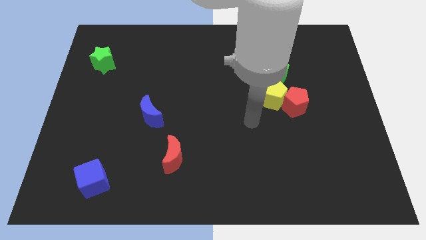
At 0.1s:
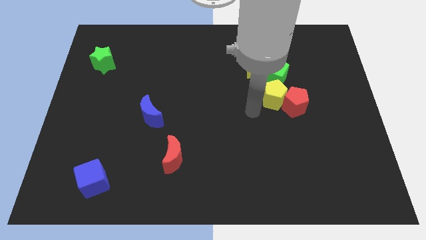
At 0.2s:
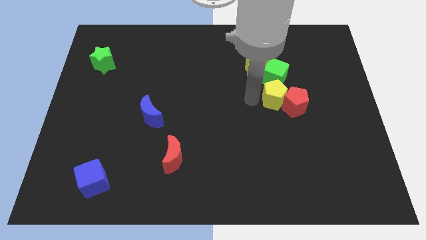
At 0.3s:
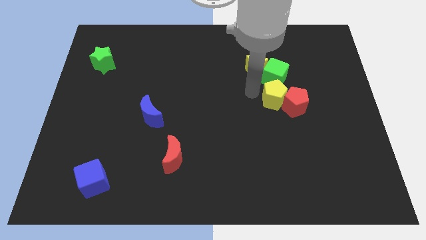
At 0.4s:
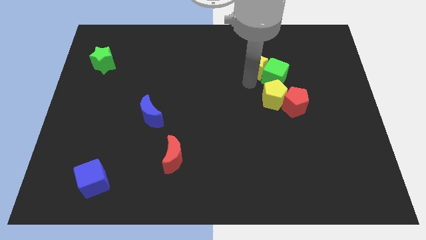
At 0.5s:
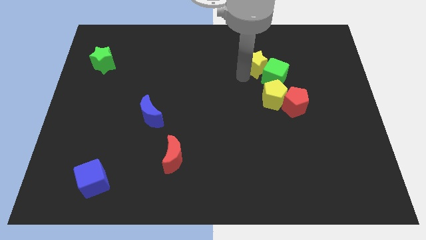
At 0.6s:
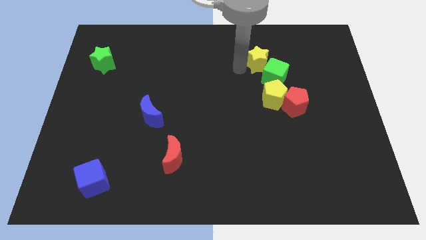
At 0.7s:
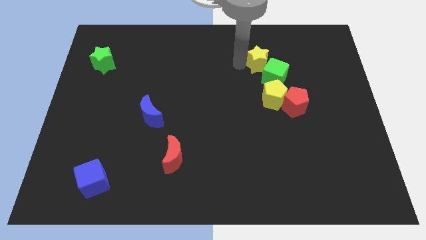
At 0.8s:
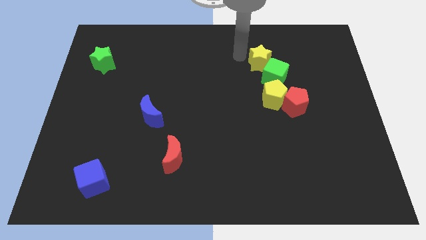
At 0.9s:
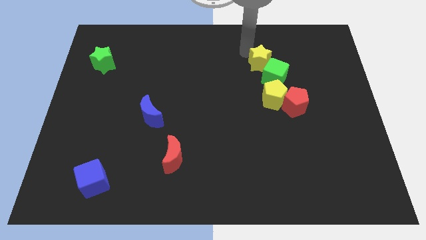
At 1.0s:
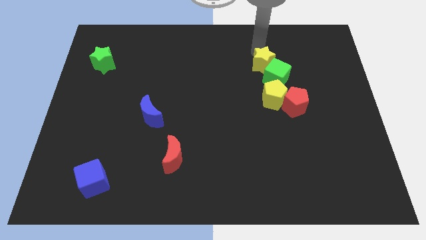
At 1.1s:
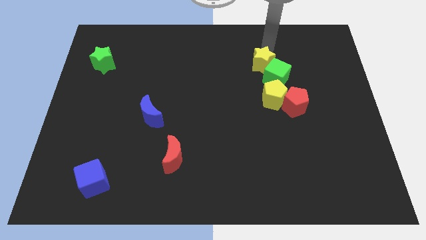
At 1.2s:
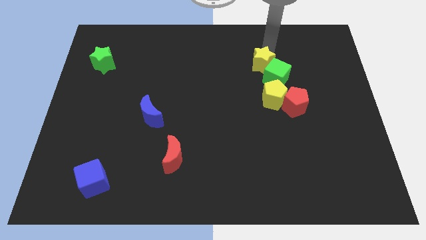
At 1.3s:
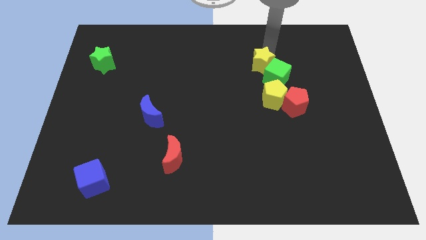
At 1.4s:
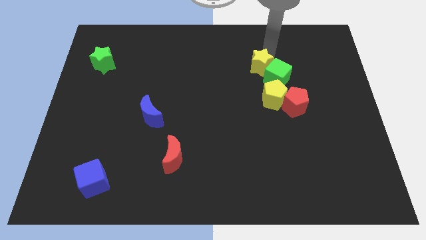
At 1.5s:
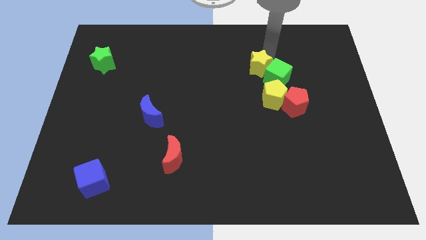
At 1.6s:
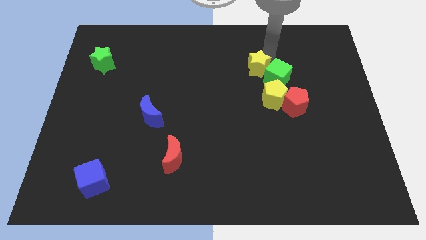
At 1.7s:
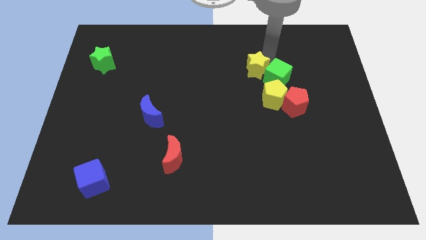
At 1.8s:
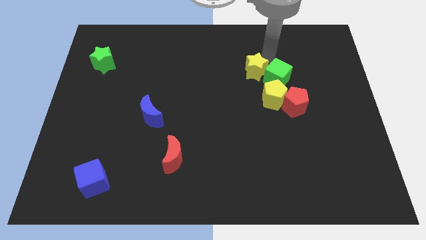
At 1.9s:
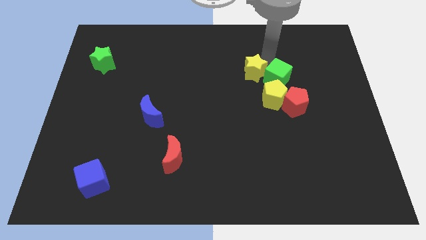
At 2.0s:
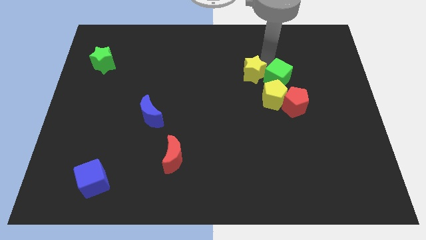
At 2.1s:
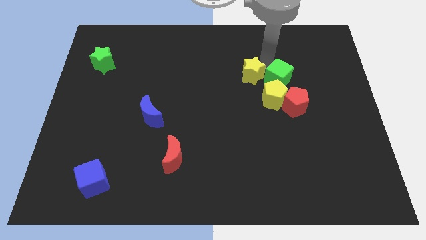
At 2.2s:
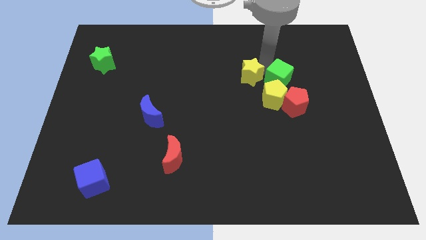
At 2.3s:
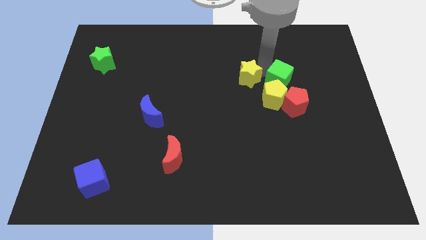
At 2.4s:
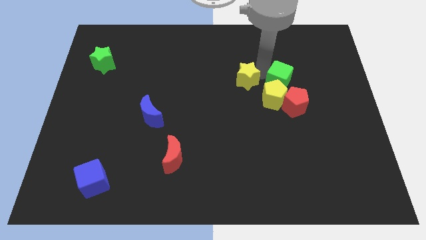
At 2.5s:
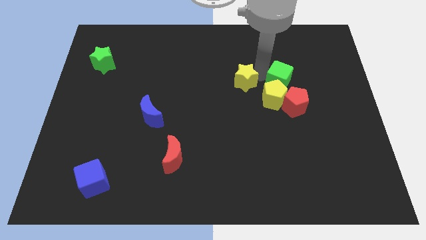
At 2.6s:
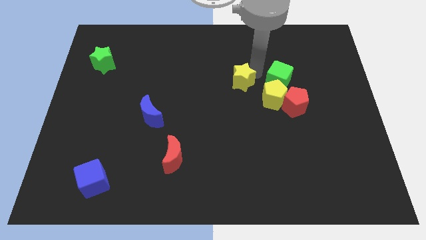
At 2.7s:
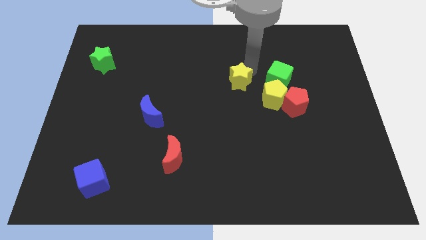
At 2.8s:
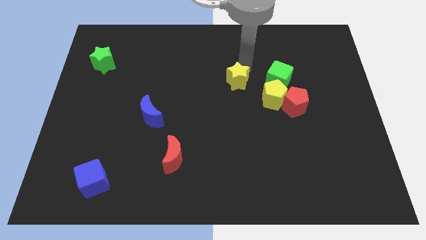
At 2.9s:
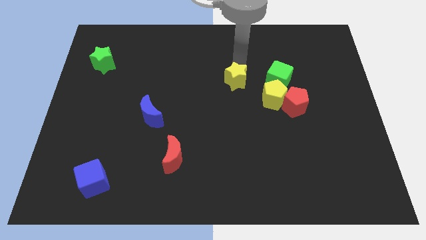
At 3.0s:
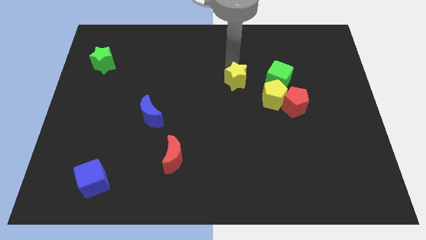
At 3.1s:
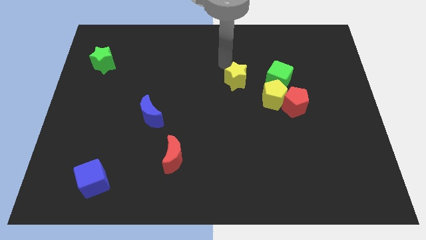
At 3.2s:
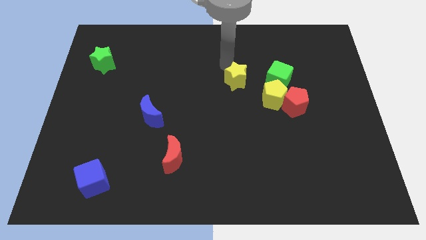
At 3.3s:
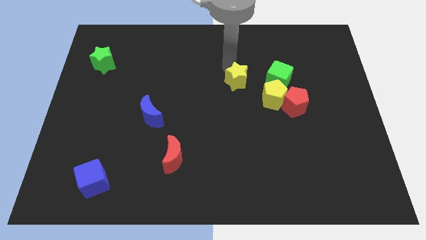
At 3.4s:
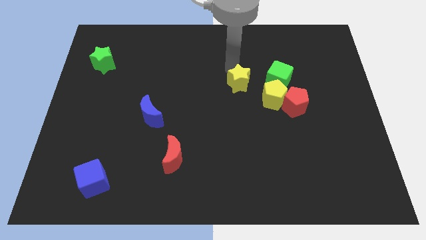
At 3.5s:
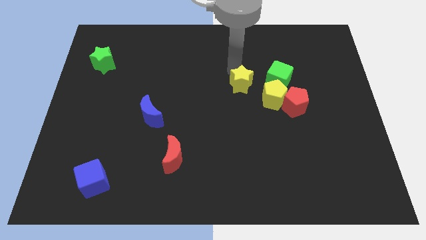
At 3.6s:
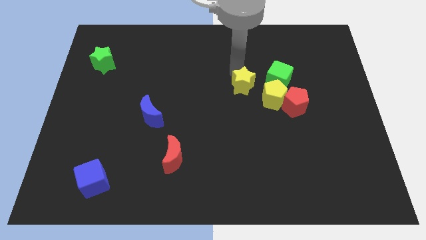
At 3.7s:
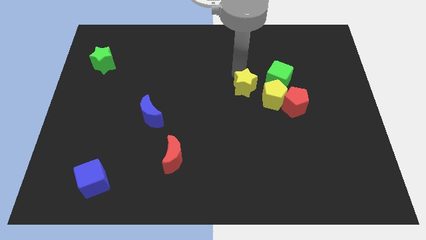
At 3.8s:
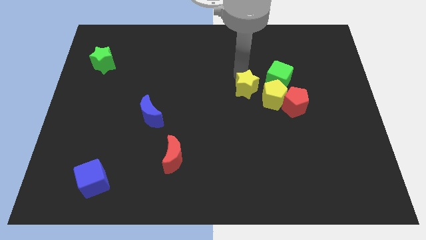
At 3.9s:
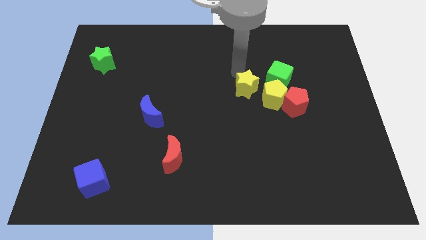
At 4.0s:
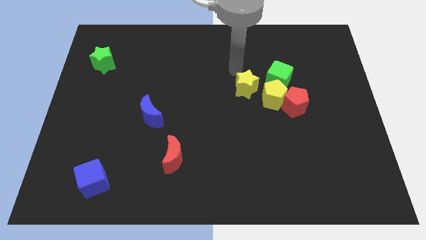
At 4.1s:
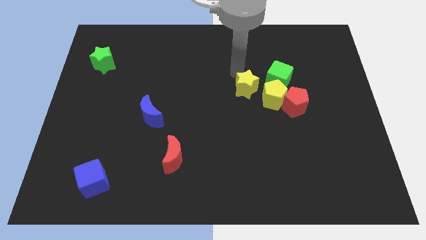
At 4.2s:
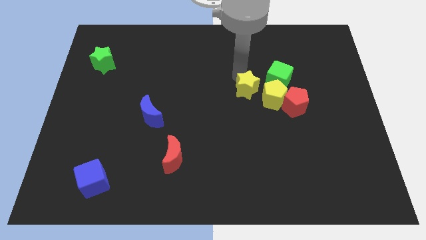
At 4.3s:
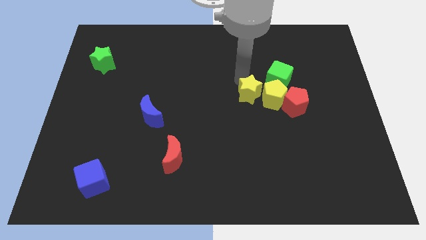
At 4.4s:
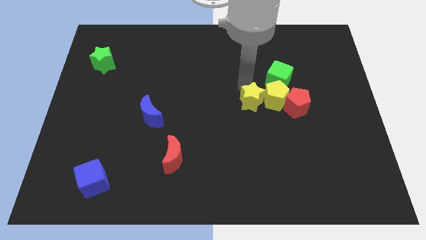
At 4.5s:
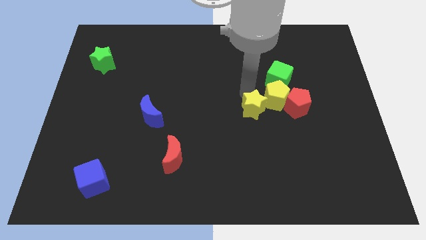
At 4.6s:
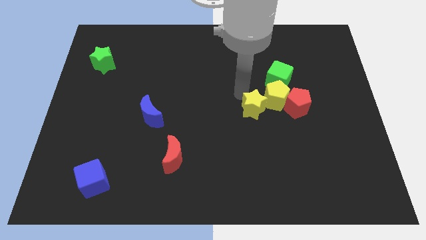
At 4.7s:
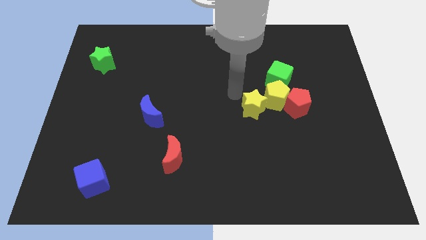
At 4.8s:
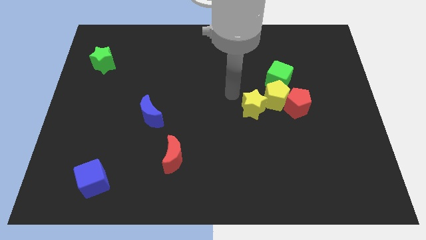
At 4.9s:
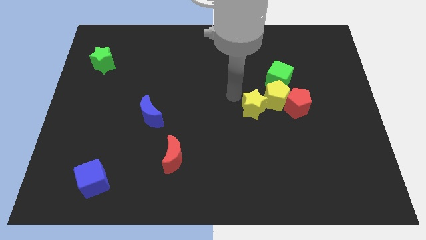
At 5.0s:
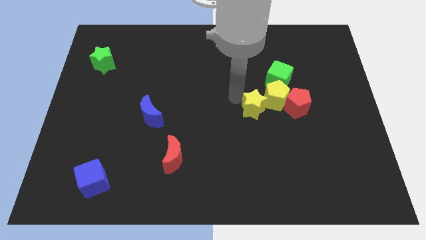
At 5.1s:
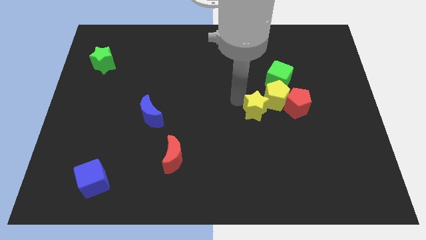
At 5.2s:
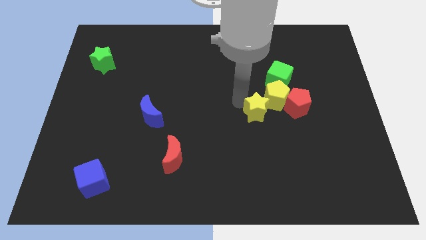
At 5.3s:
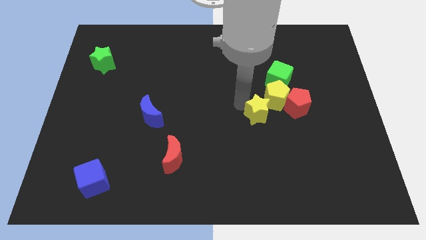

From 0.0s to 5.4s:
put the yellow star diagonally down and to the left of the red pentagon

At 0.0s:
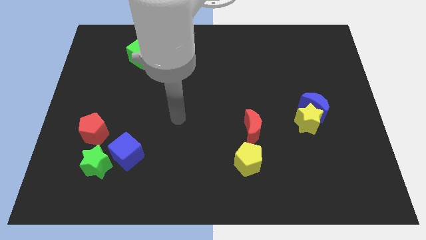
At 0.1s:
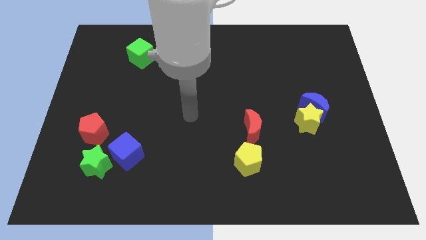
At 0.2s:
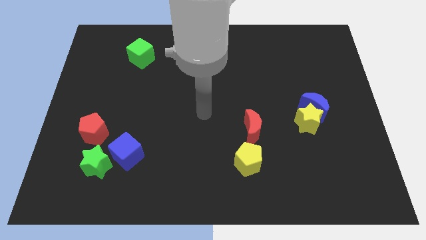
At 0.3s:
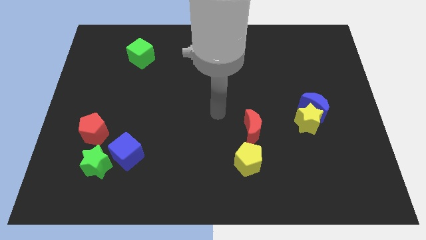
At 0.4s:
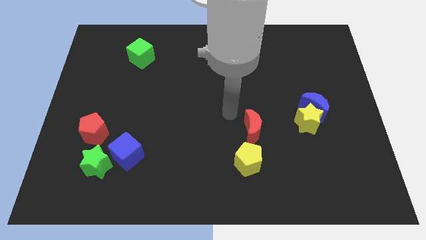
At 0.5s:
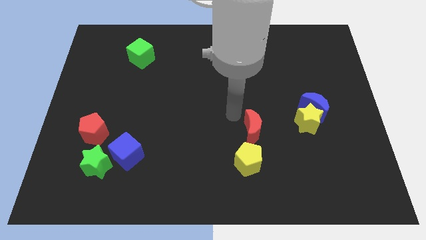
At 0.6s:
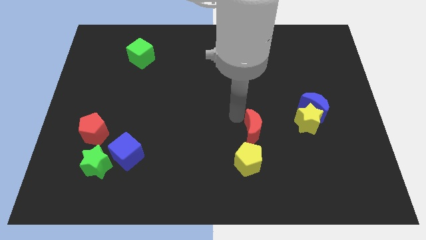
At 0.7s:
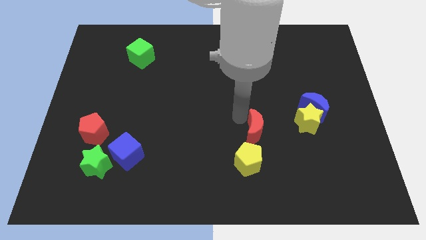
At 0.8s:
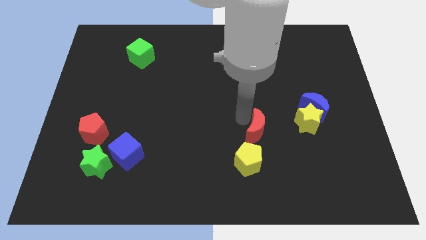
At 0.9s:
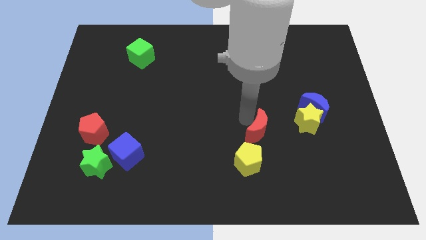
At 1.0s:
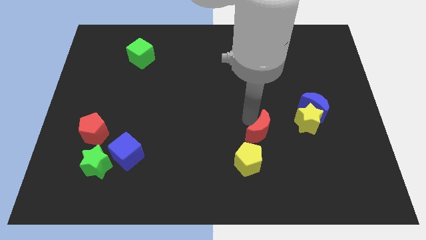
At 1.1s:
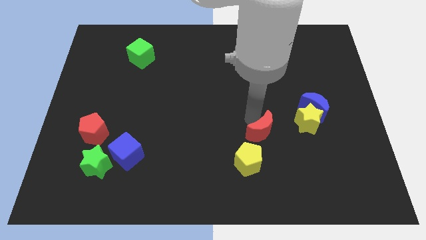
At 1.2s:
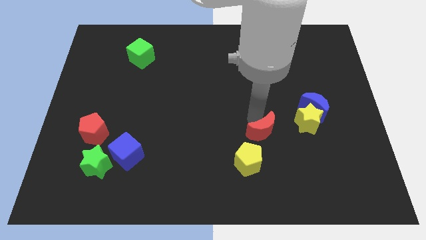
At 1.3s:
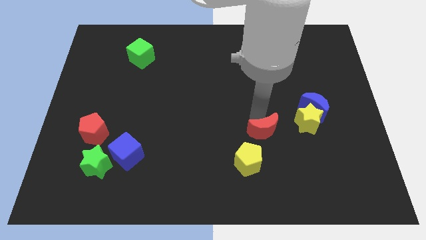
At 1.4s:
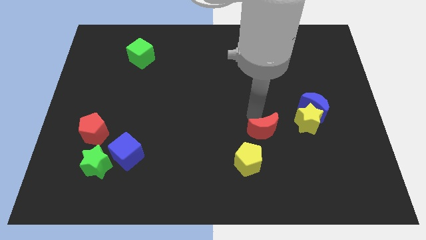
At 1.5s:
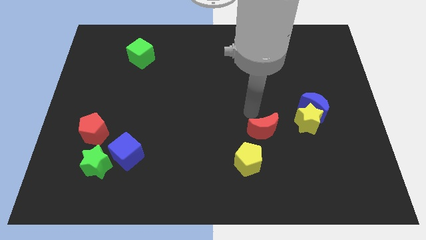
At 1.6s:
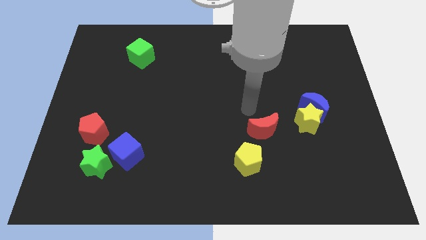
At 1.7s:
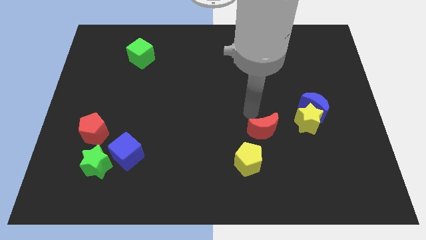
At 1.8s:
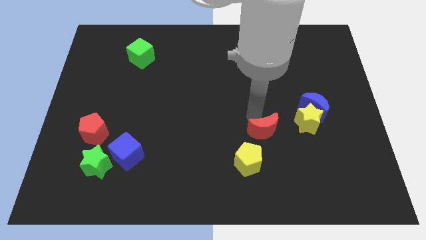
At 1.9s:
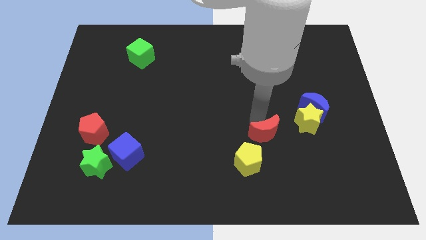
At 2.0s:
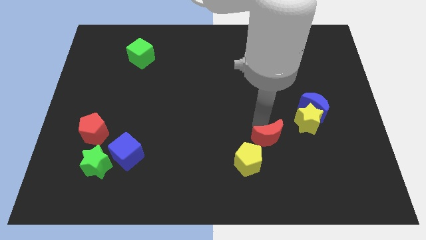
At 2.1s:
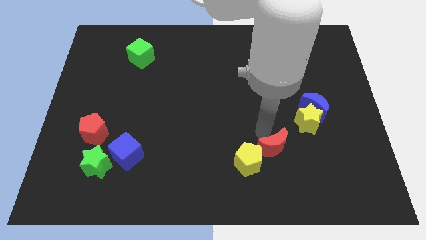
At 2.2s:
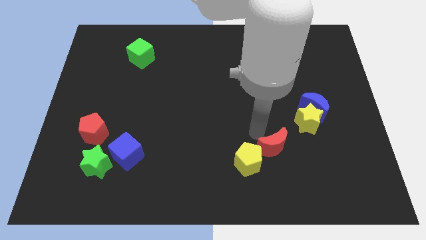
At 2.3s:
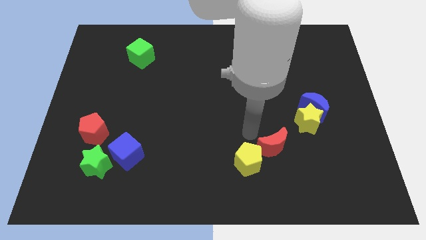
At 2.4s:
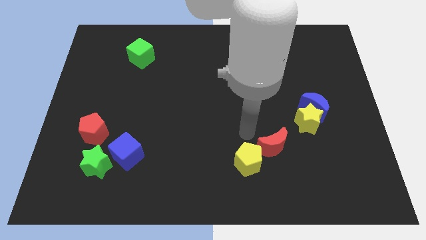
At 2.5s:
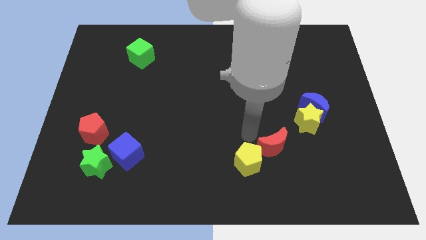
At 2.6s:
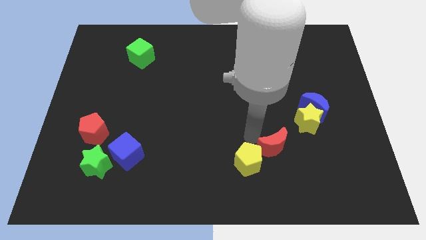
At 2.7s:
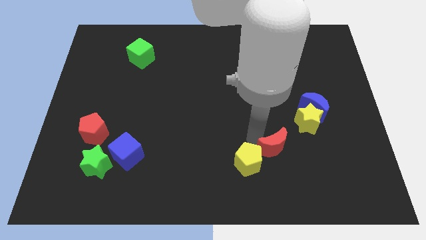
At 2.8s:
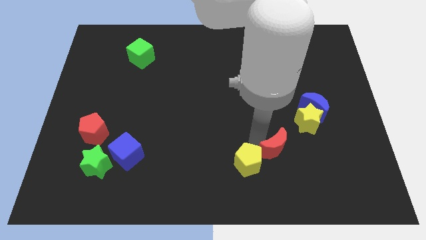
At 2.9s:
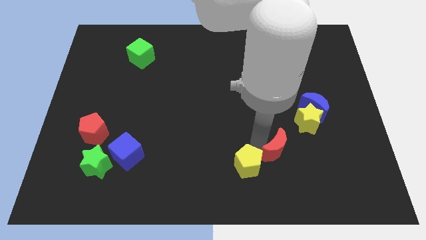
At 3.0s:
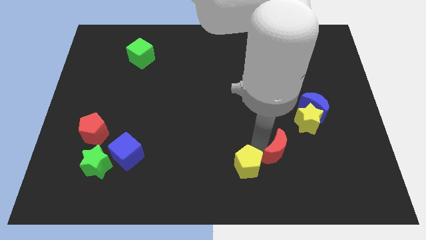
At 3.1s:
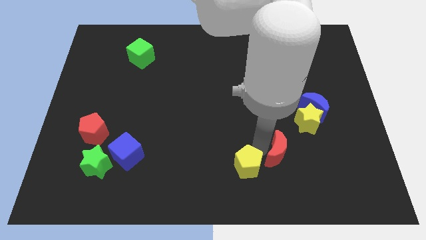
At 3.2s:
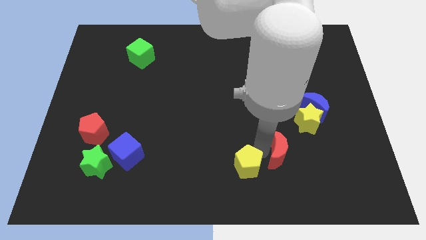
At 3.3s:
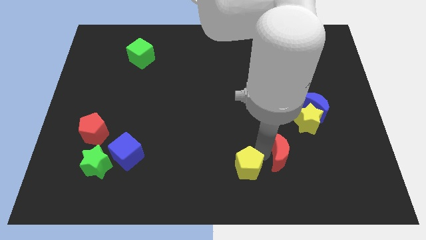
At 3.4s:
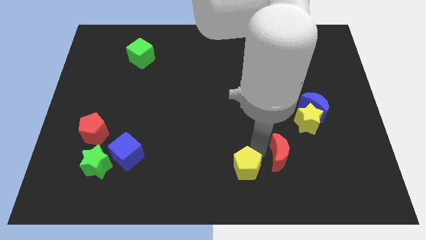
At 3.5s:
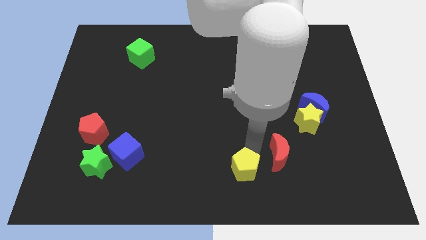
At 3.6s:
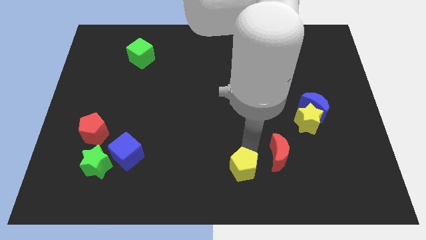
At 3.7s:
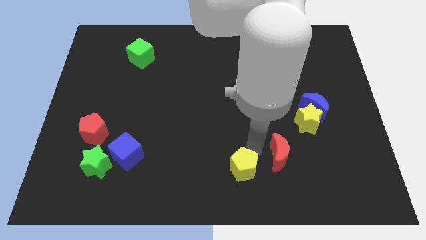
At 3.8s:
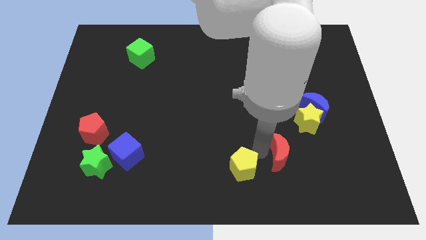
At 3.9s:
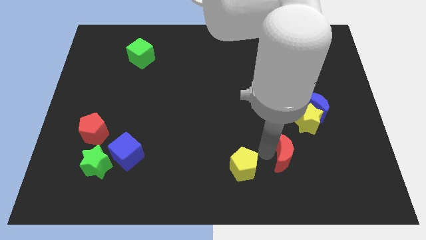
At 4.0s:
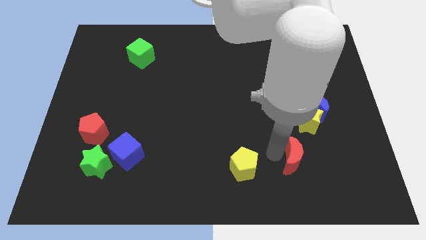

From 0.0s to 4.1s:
put the red moon below the yellow star
